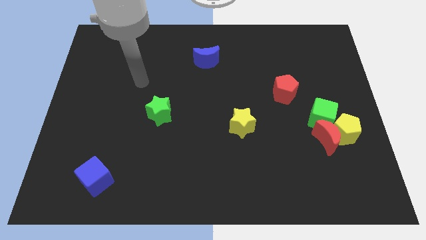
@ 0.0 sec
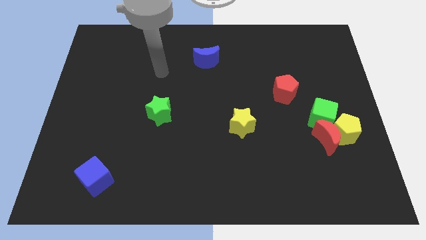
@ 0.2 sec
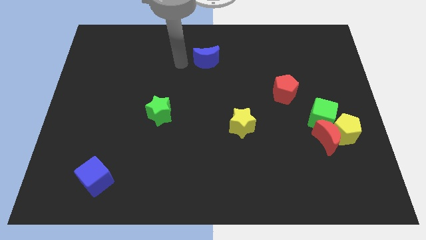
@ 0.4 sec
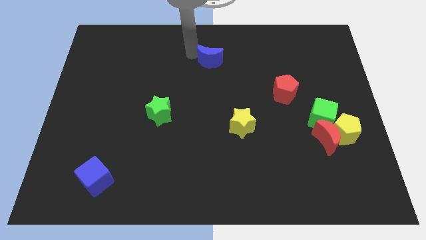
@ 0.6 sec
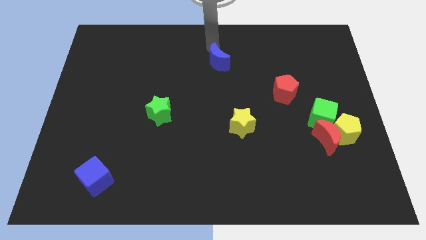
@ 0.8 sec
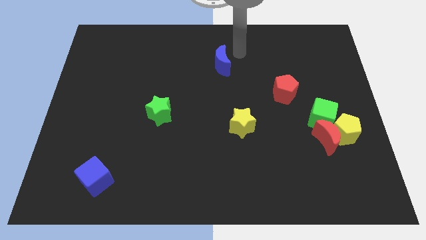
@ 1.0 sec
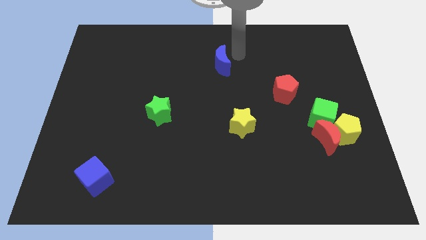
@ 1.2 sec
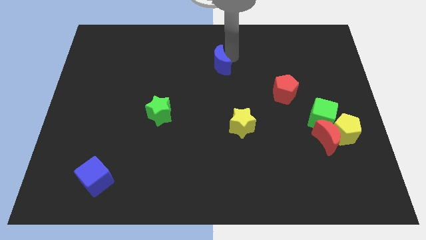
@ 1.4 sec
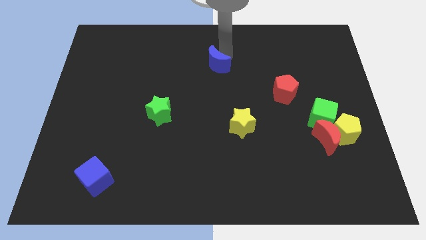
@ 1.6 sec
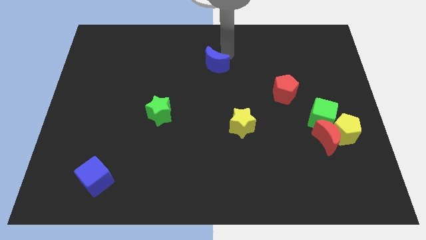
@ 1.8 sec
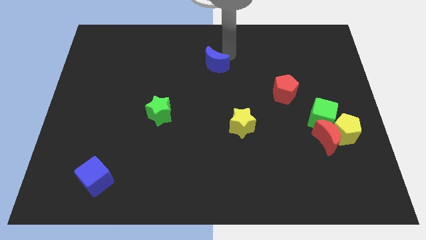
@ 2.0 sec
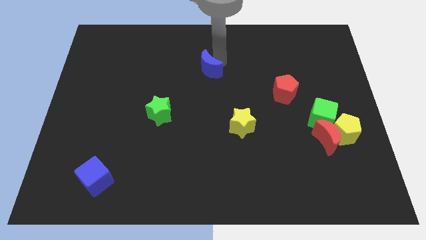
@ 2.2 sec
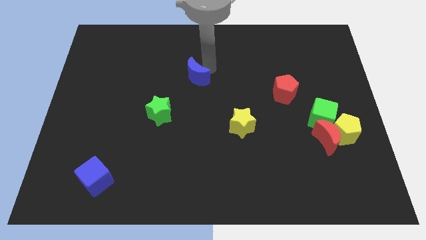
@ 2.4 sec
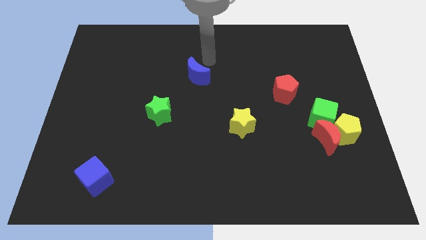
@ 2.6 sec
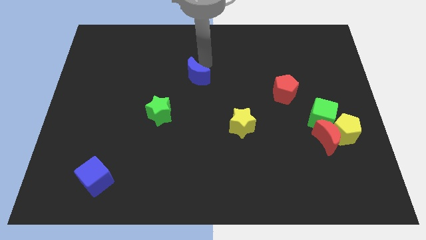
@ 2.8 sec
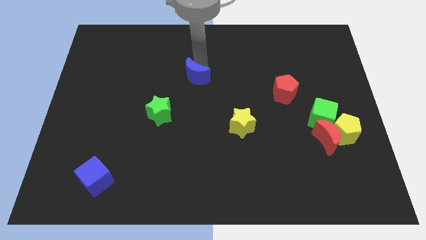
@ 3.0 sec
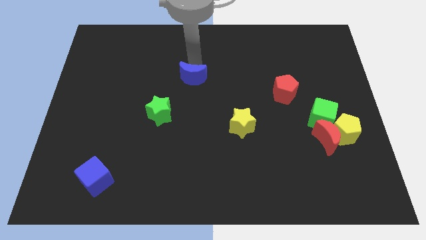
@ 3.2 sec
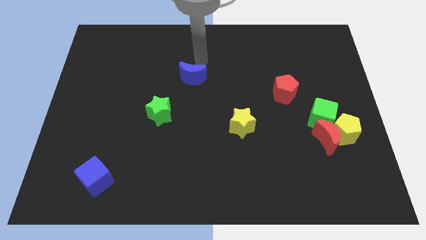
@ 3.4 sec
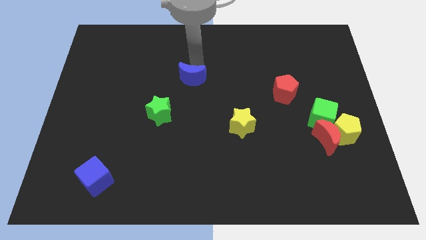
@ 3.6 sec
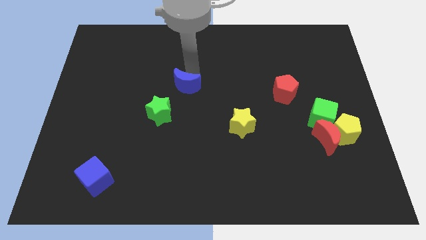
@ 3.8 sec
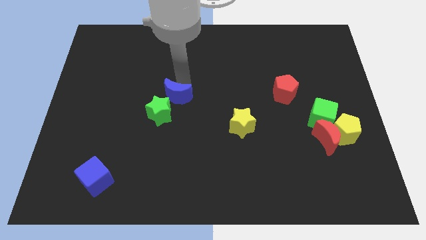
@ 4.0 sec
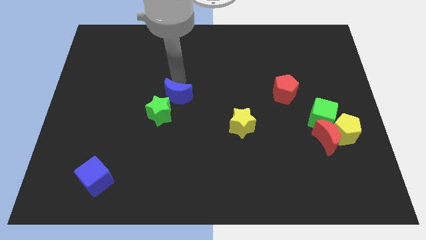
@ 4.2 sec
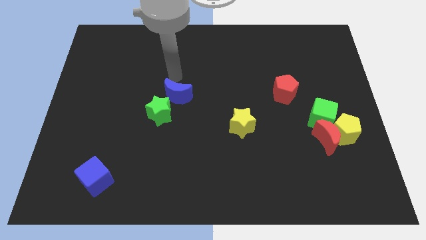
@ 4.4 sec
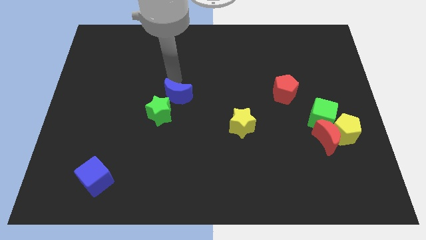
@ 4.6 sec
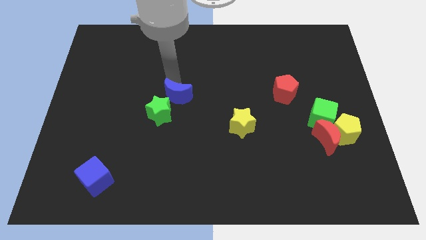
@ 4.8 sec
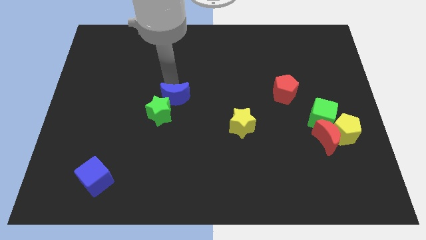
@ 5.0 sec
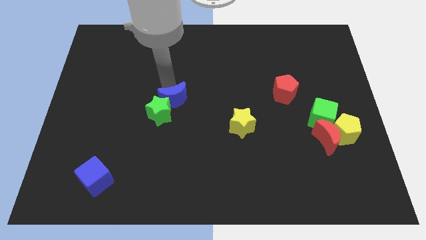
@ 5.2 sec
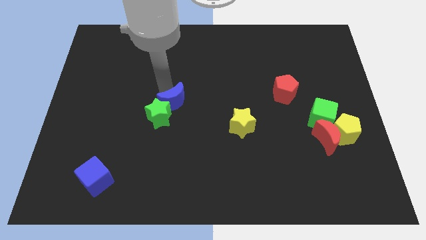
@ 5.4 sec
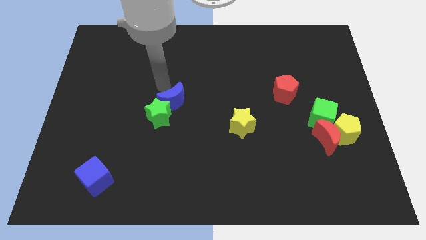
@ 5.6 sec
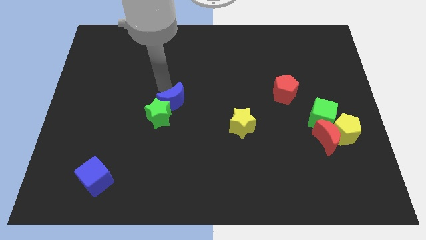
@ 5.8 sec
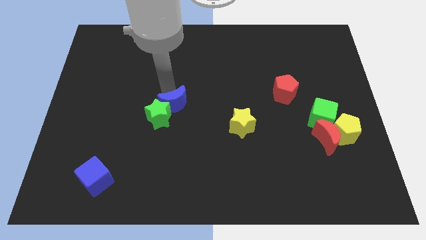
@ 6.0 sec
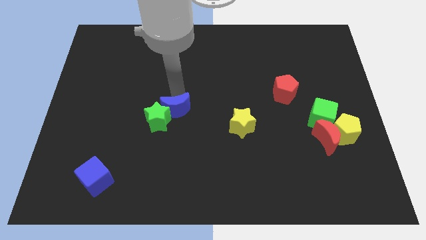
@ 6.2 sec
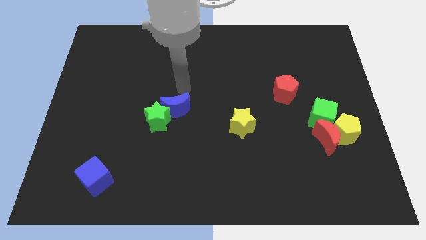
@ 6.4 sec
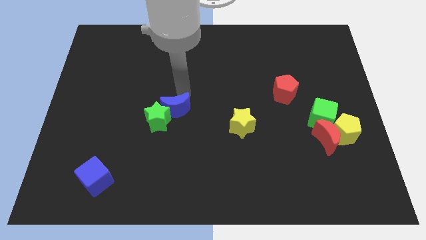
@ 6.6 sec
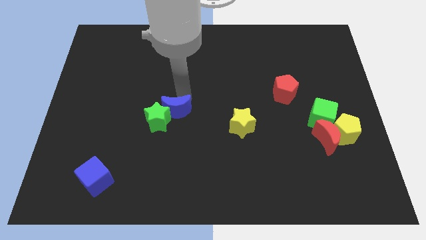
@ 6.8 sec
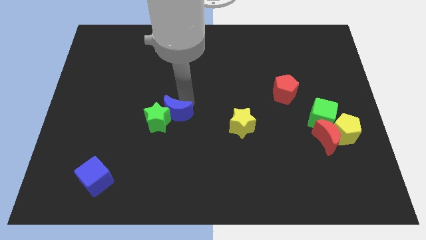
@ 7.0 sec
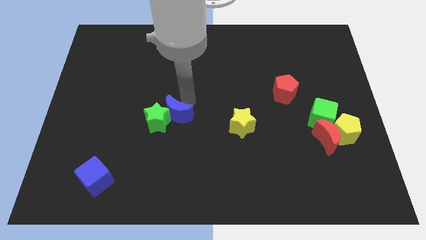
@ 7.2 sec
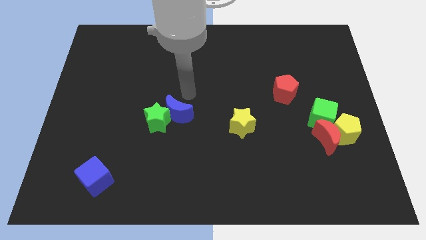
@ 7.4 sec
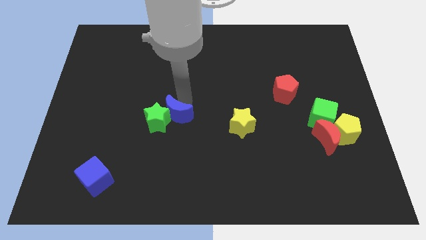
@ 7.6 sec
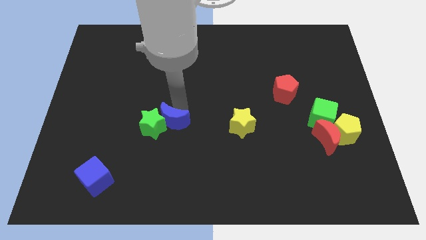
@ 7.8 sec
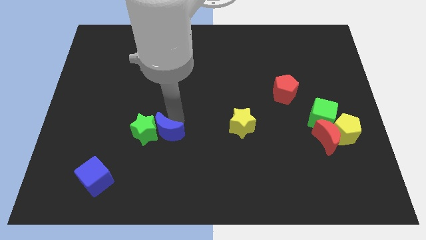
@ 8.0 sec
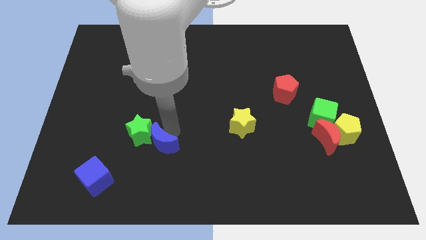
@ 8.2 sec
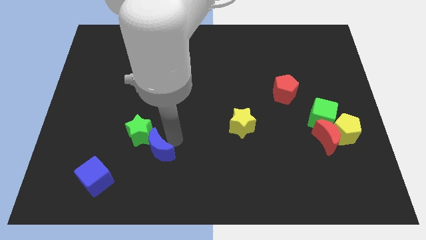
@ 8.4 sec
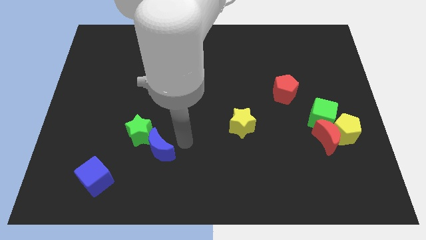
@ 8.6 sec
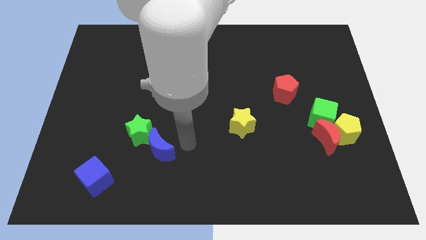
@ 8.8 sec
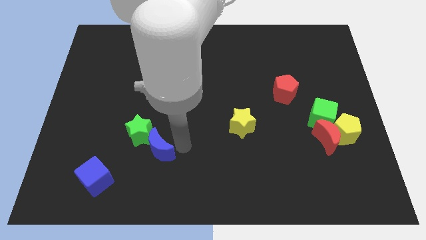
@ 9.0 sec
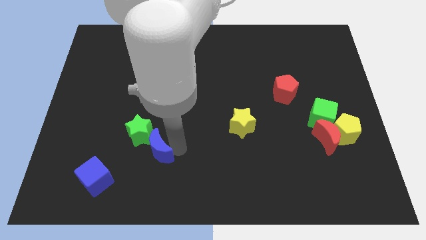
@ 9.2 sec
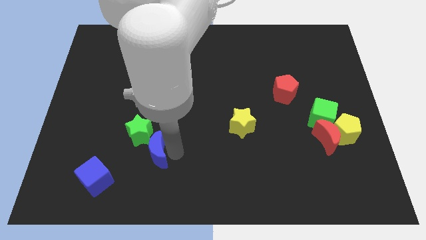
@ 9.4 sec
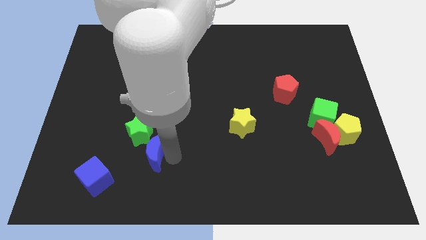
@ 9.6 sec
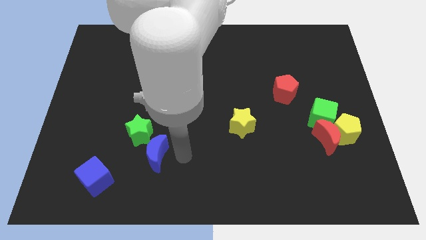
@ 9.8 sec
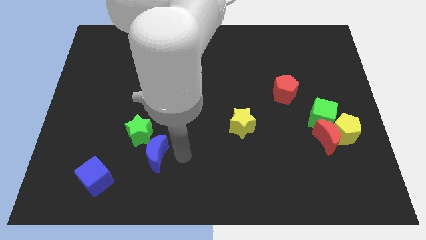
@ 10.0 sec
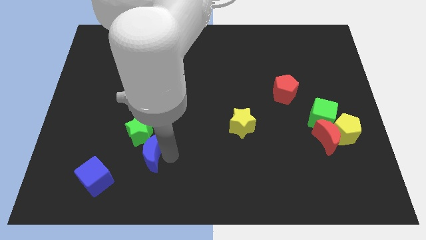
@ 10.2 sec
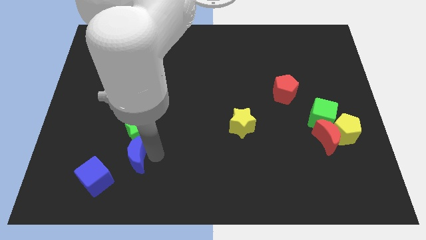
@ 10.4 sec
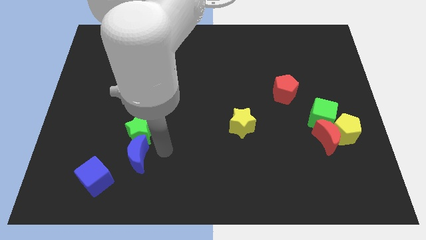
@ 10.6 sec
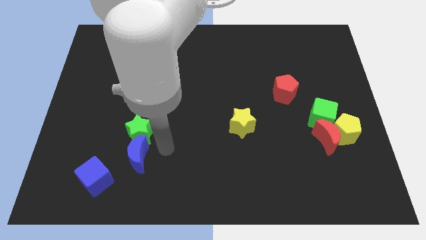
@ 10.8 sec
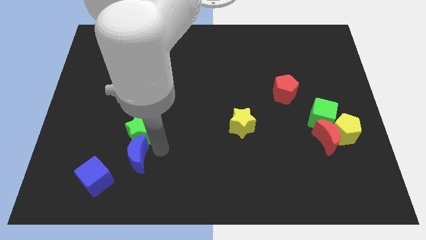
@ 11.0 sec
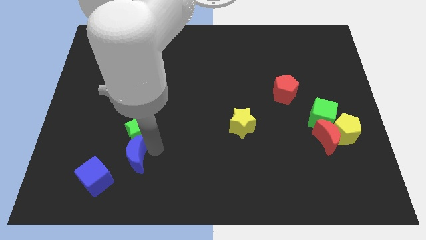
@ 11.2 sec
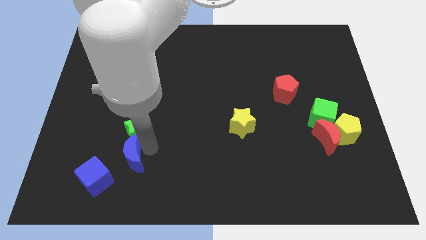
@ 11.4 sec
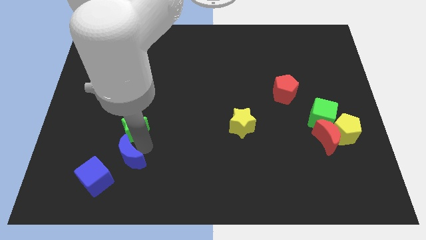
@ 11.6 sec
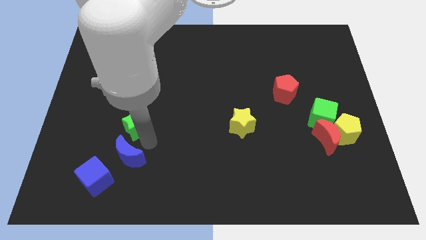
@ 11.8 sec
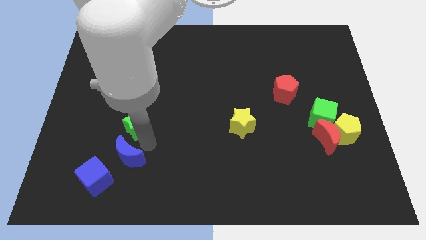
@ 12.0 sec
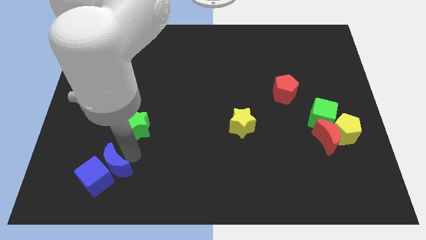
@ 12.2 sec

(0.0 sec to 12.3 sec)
put the blue moon next to the blue cube
